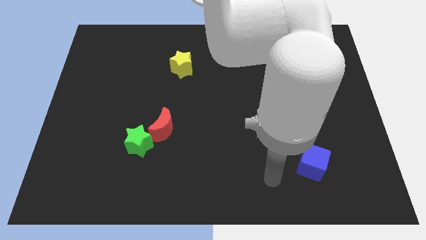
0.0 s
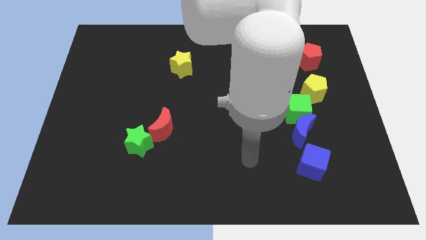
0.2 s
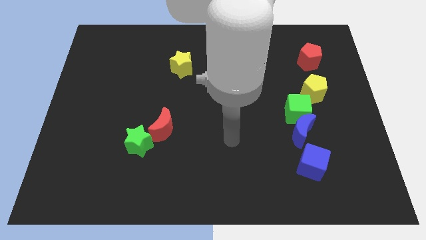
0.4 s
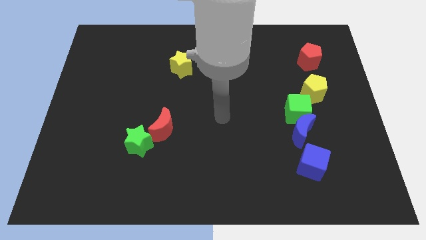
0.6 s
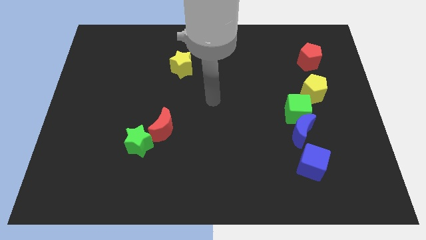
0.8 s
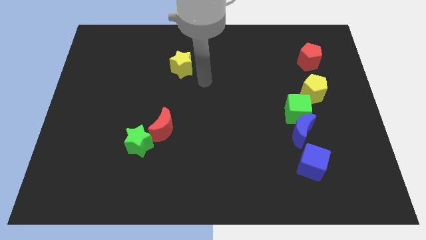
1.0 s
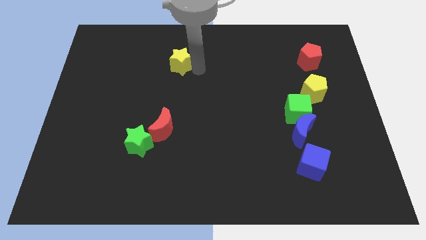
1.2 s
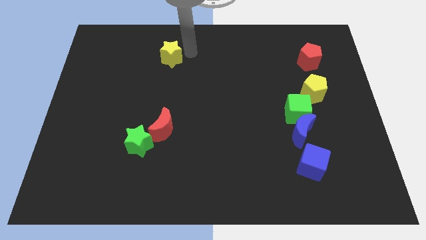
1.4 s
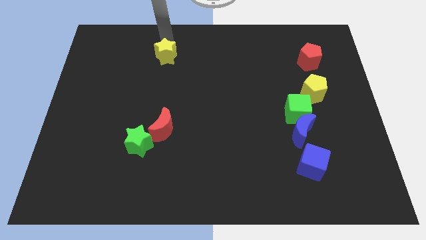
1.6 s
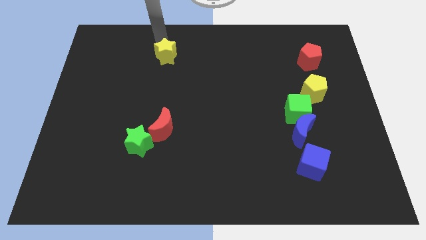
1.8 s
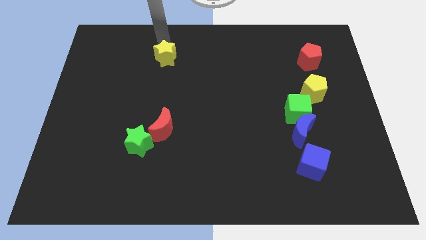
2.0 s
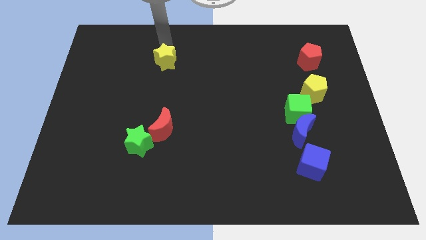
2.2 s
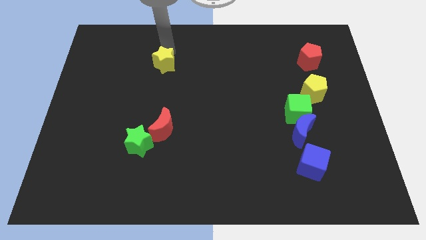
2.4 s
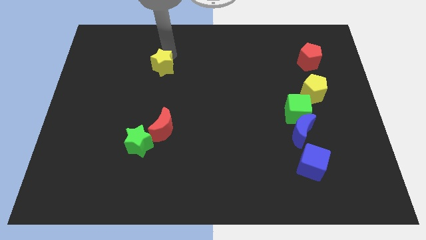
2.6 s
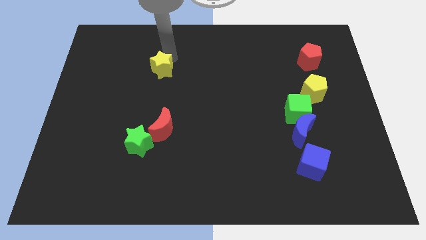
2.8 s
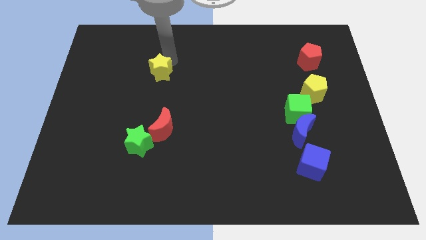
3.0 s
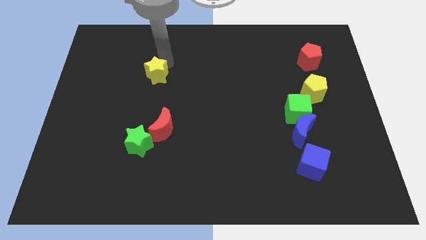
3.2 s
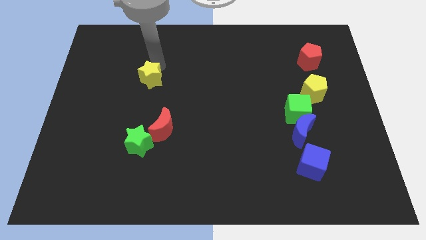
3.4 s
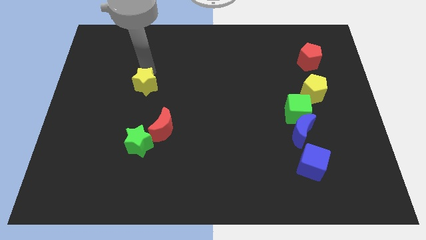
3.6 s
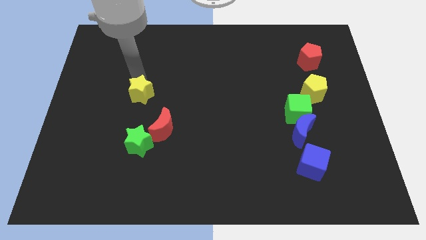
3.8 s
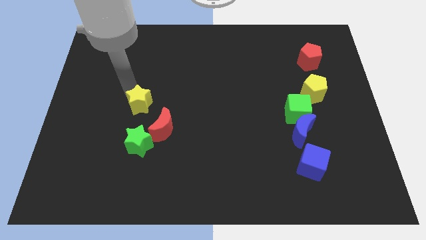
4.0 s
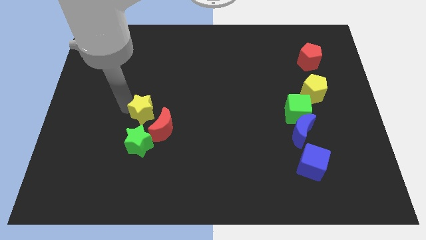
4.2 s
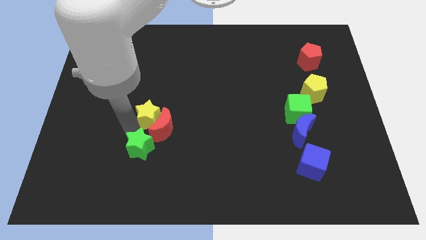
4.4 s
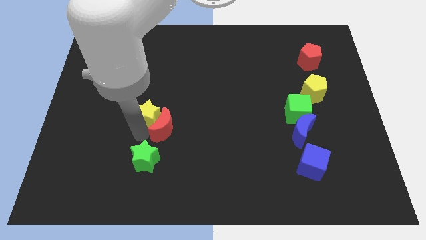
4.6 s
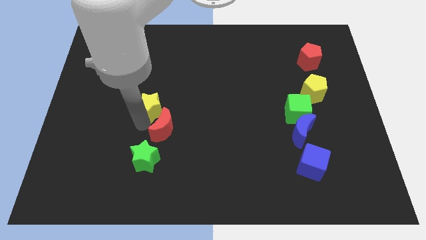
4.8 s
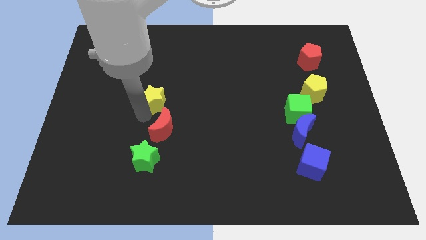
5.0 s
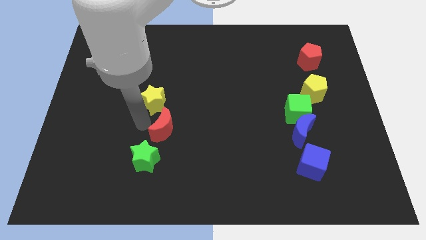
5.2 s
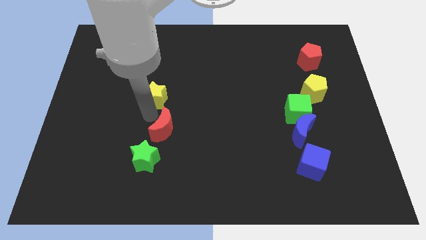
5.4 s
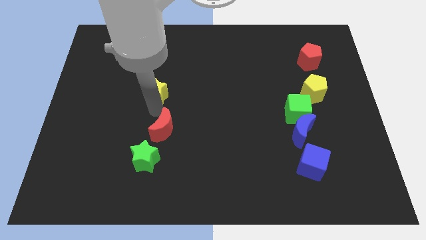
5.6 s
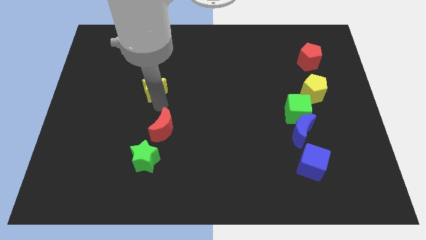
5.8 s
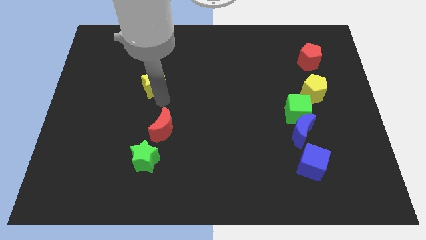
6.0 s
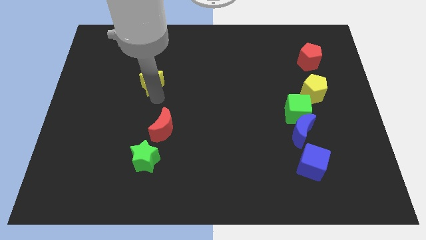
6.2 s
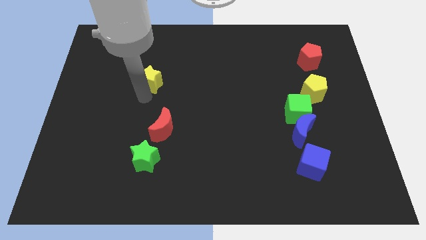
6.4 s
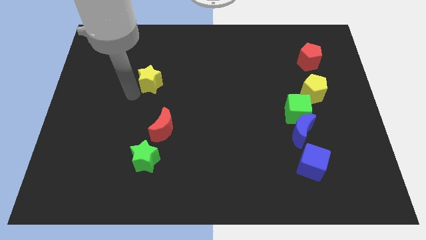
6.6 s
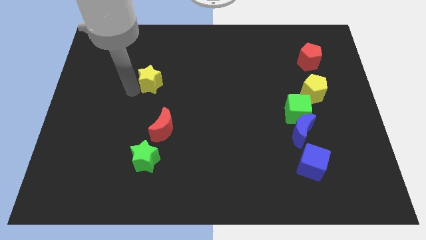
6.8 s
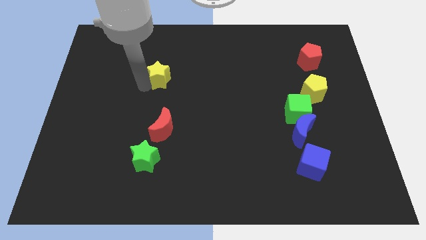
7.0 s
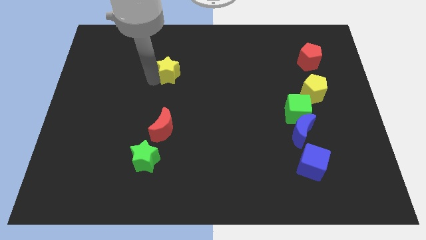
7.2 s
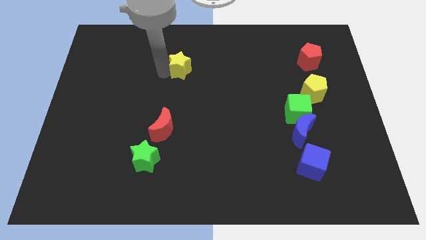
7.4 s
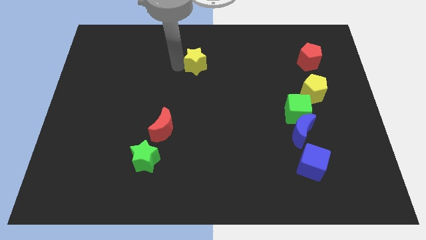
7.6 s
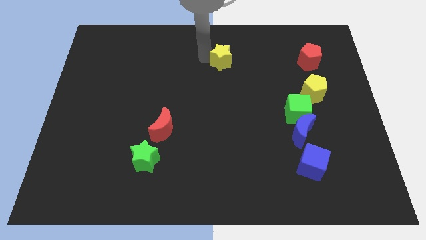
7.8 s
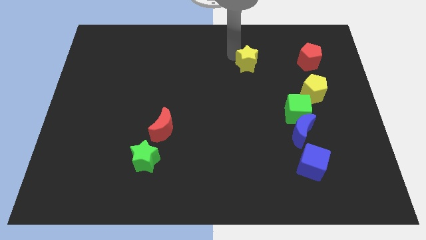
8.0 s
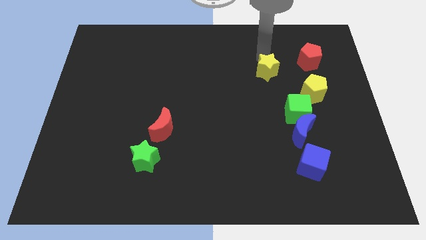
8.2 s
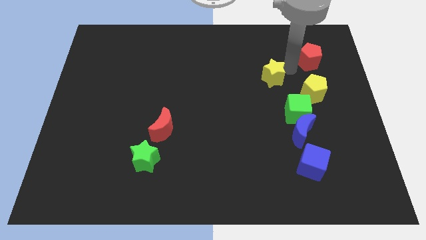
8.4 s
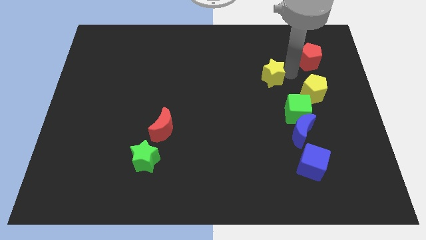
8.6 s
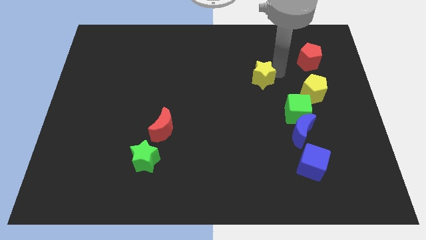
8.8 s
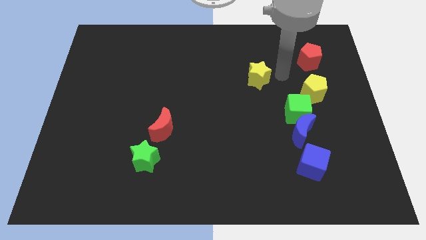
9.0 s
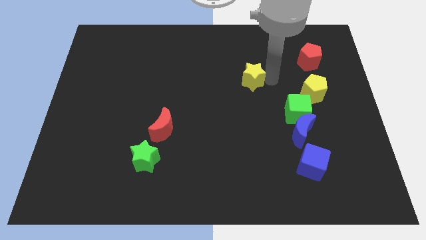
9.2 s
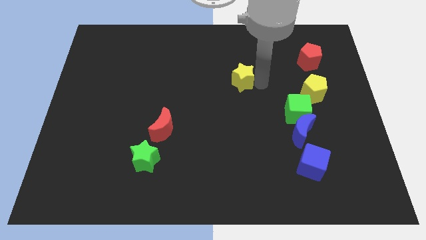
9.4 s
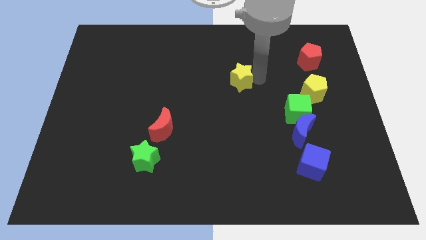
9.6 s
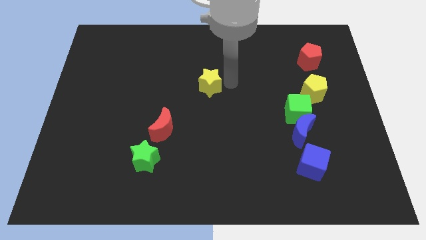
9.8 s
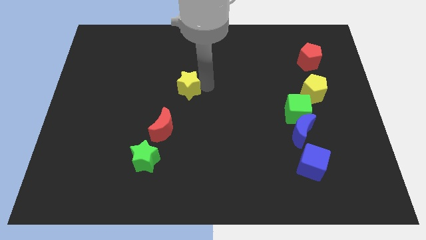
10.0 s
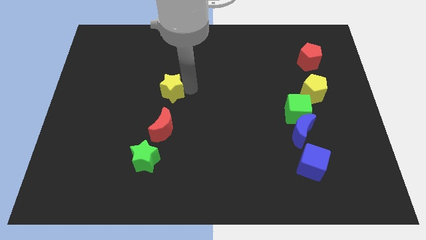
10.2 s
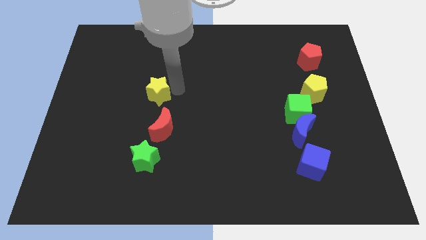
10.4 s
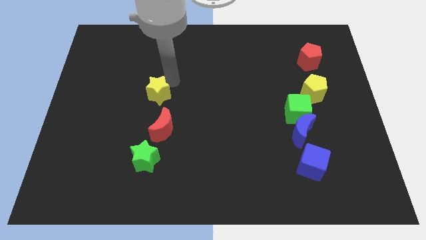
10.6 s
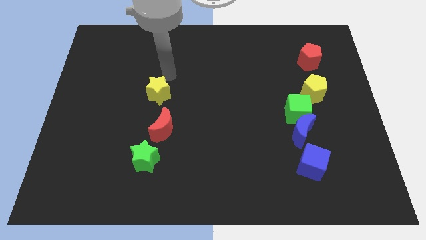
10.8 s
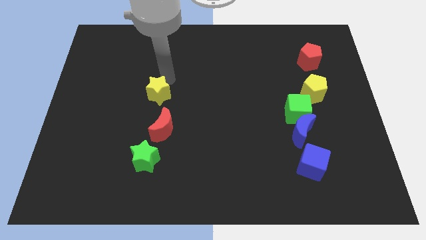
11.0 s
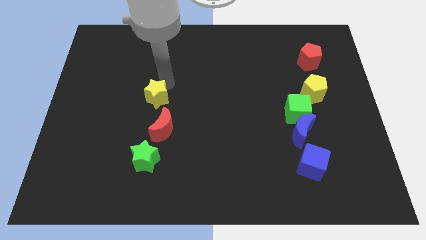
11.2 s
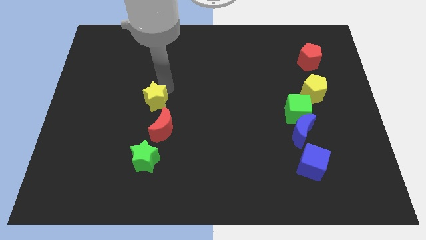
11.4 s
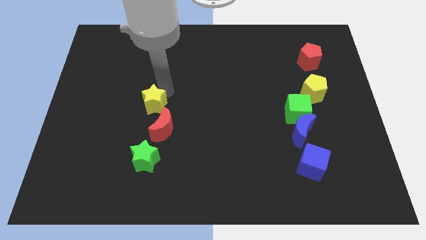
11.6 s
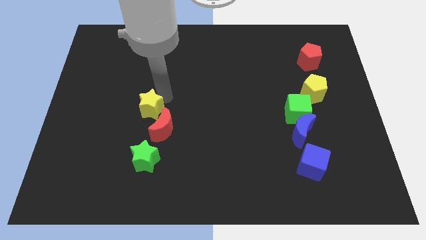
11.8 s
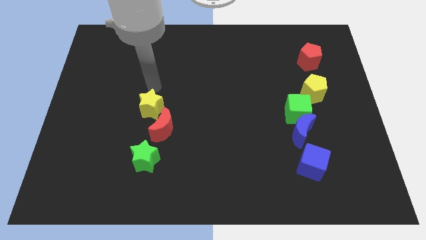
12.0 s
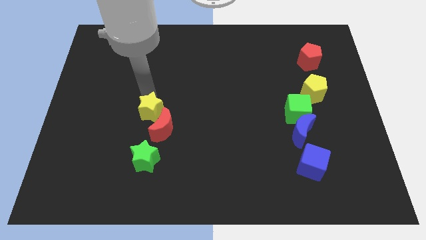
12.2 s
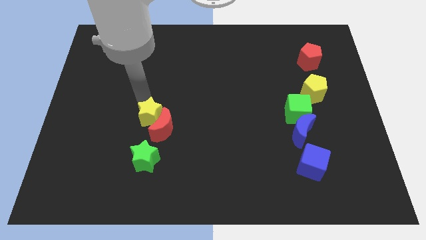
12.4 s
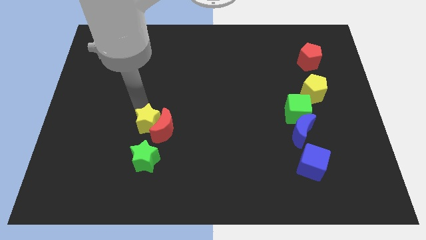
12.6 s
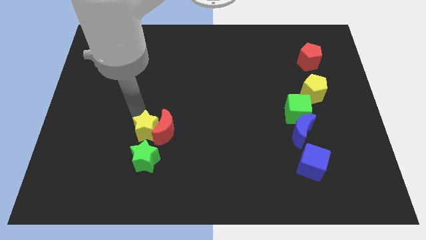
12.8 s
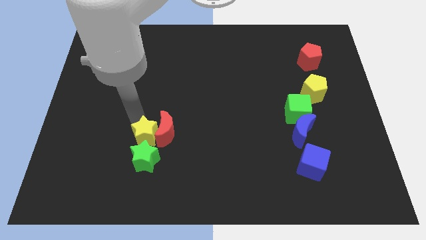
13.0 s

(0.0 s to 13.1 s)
slide the yellow star to the green star

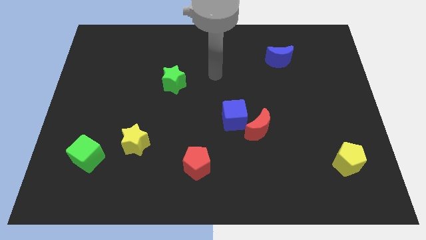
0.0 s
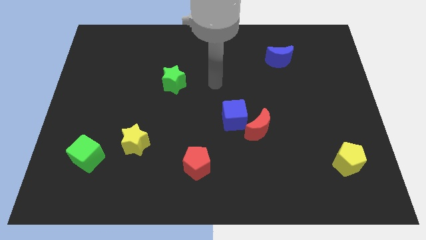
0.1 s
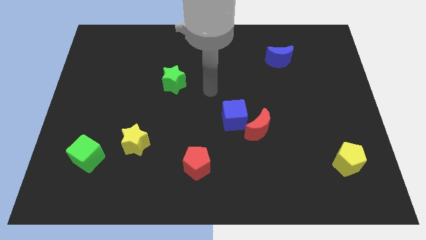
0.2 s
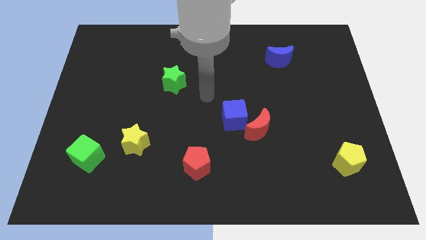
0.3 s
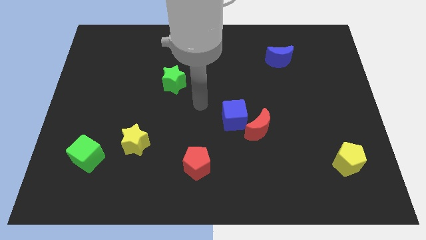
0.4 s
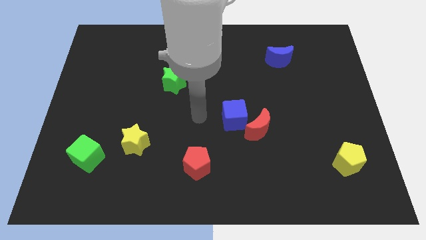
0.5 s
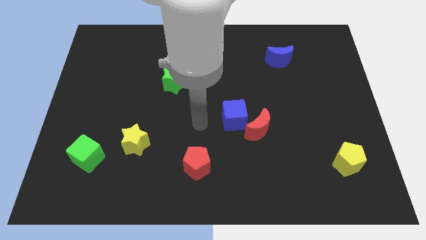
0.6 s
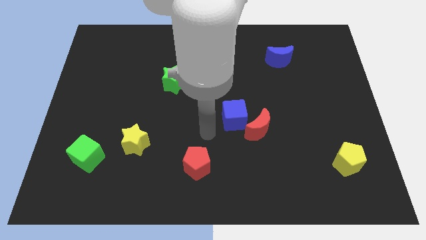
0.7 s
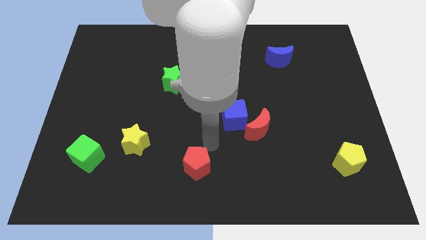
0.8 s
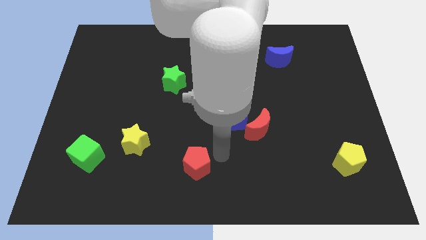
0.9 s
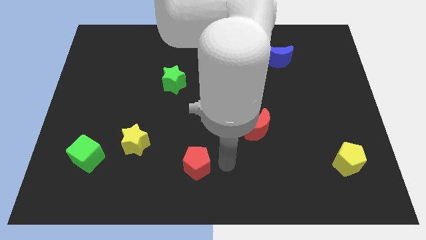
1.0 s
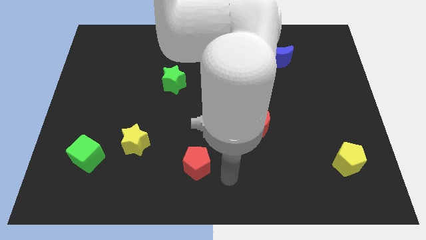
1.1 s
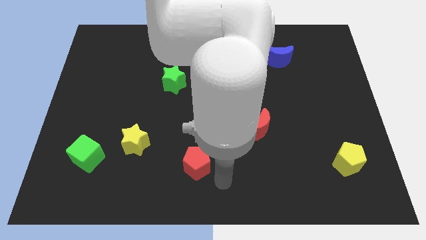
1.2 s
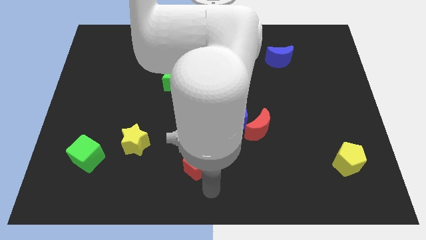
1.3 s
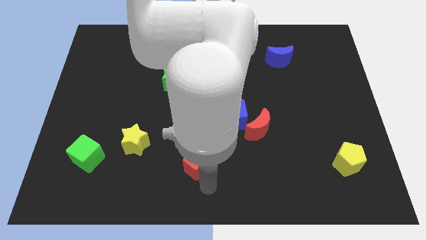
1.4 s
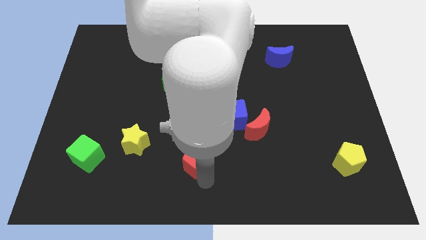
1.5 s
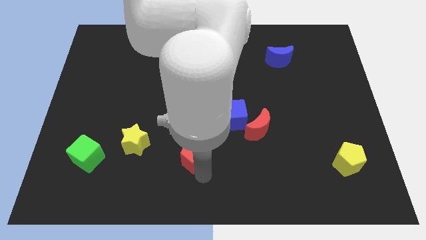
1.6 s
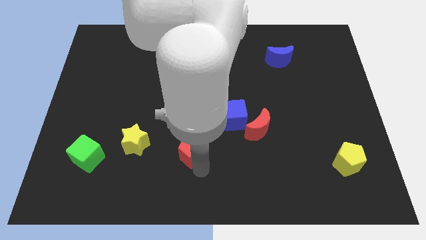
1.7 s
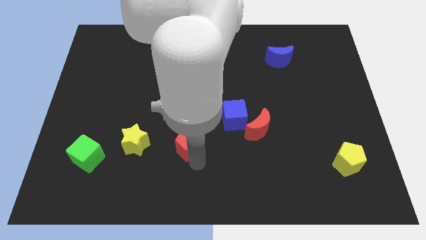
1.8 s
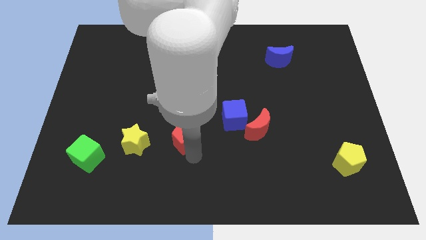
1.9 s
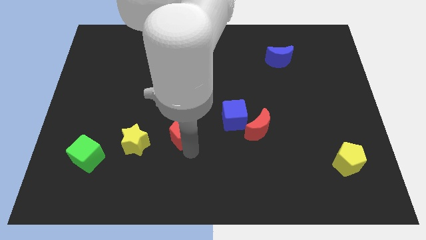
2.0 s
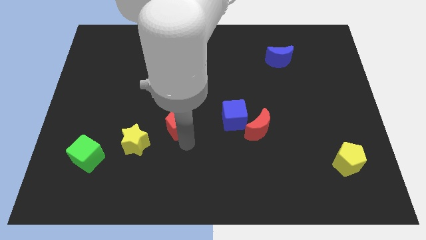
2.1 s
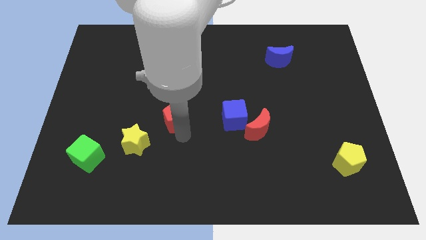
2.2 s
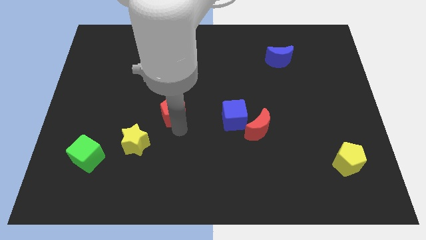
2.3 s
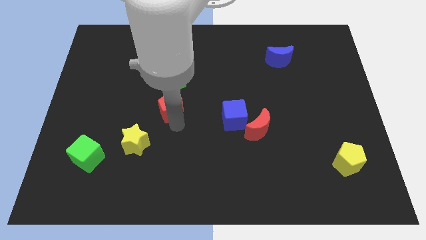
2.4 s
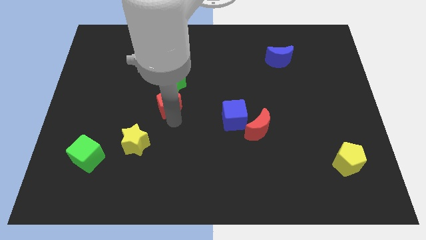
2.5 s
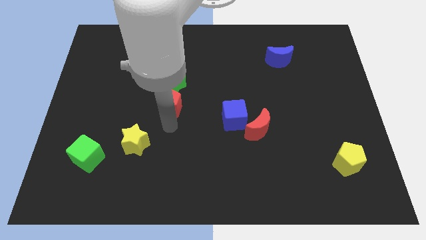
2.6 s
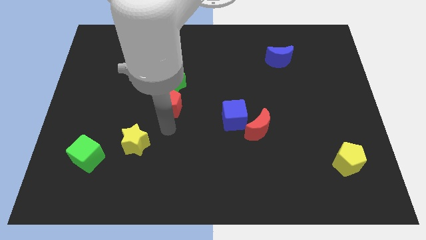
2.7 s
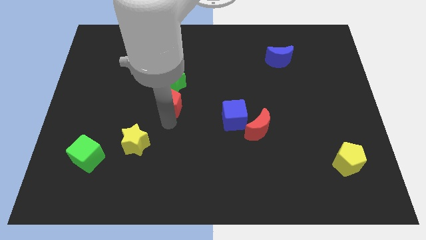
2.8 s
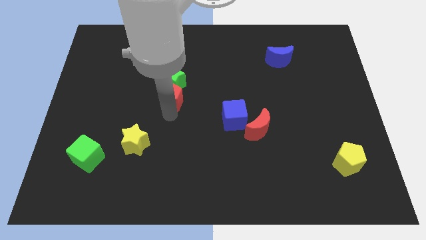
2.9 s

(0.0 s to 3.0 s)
move the red pentagon close to the green star
